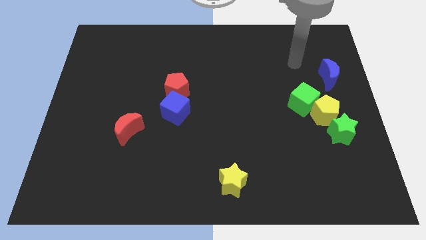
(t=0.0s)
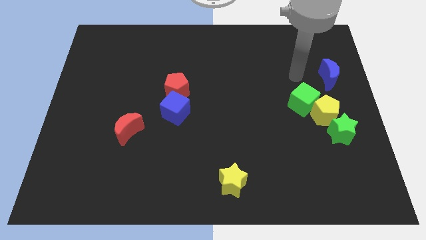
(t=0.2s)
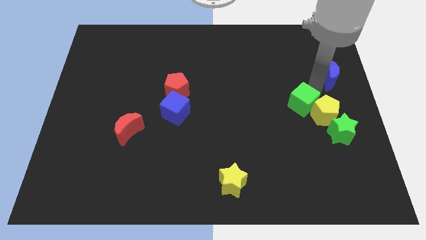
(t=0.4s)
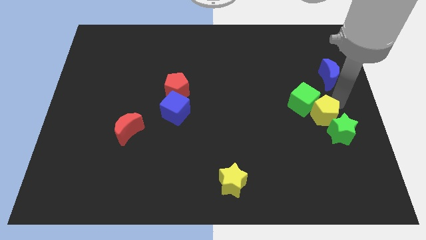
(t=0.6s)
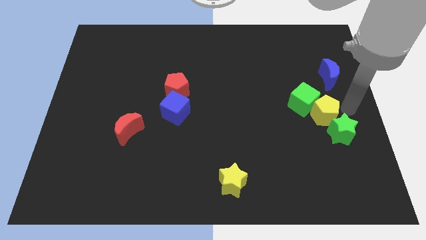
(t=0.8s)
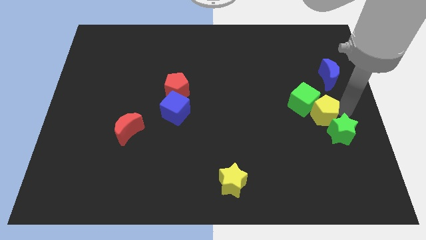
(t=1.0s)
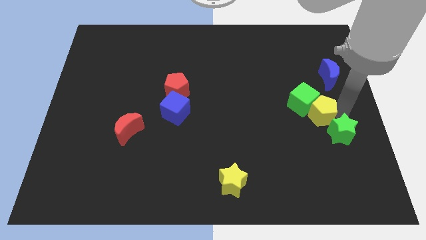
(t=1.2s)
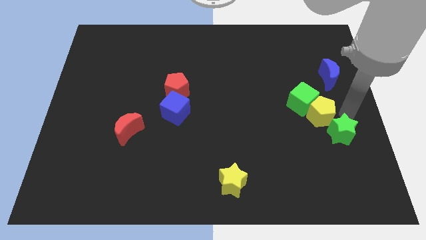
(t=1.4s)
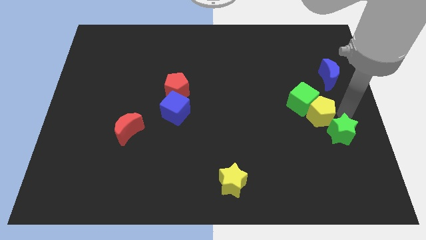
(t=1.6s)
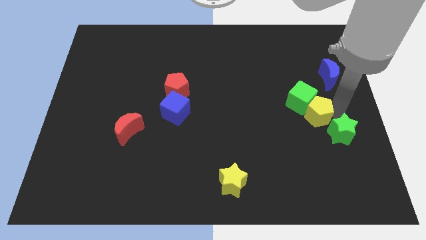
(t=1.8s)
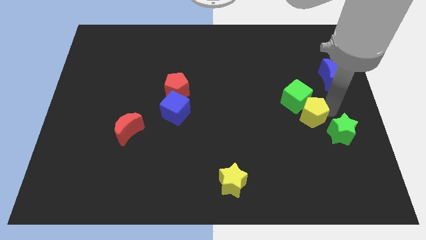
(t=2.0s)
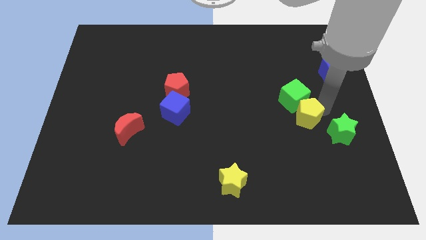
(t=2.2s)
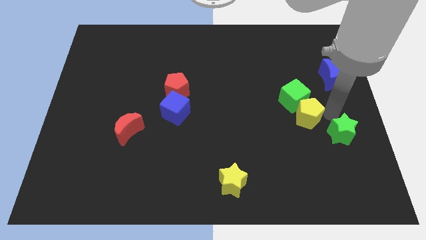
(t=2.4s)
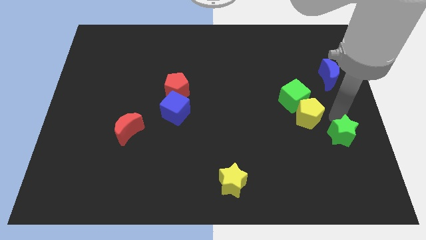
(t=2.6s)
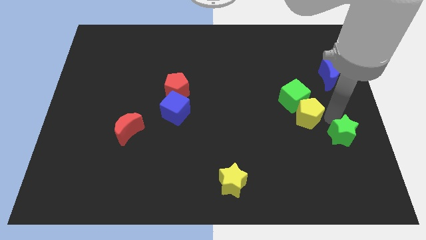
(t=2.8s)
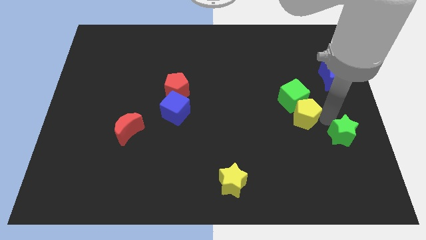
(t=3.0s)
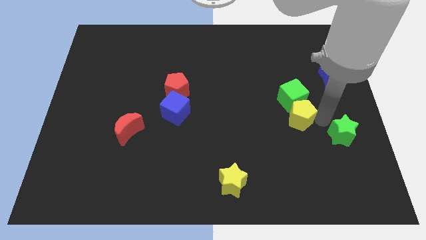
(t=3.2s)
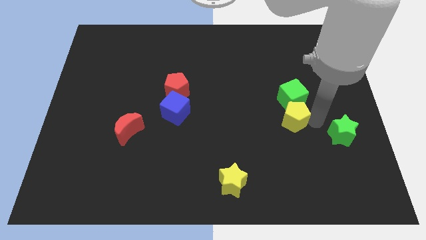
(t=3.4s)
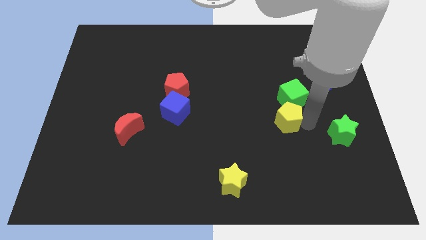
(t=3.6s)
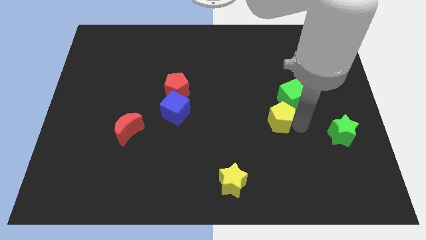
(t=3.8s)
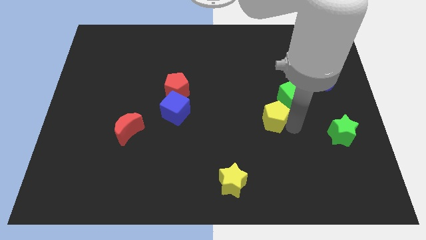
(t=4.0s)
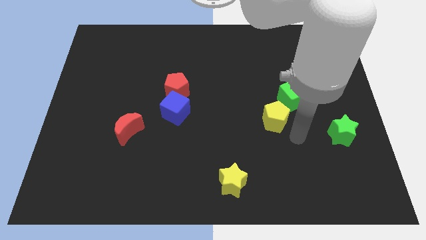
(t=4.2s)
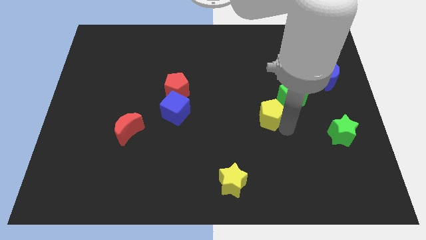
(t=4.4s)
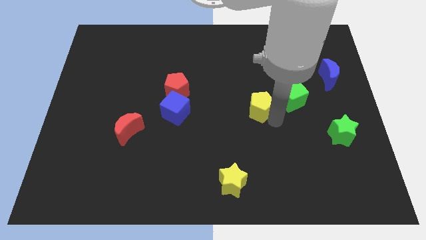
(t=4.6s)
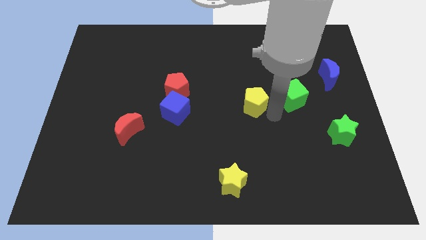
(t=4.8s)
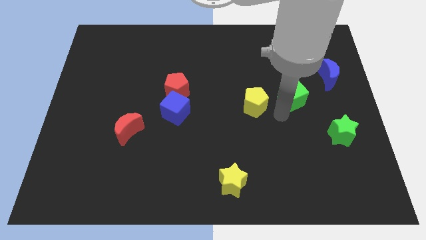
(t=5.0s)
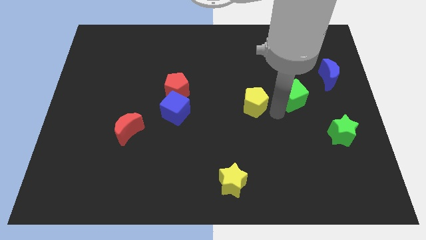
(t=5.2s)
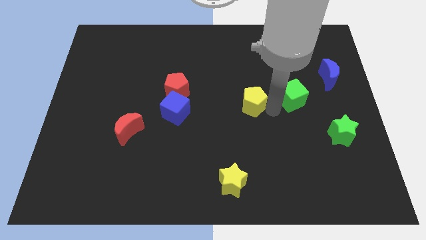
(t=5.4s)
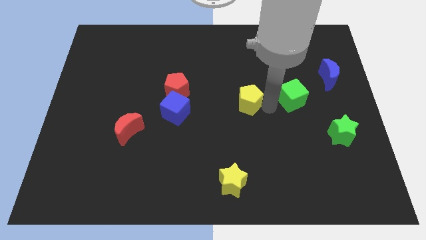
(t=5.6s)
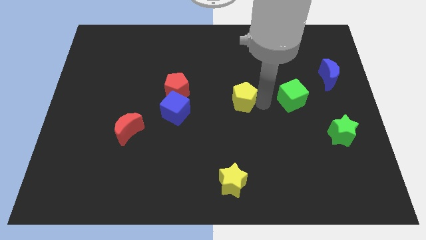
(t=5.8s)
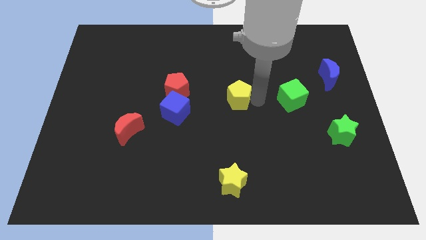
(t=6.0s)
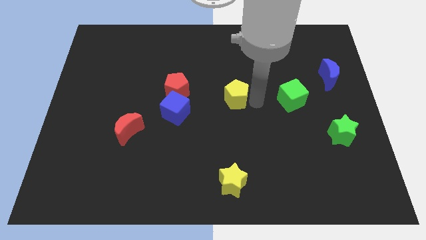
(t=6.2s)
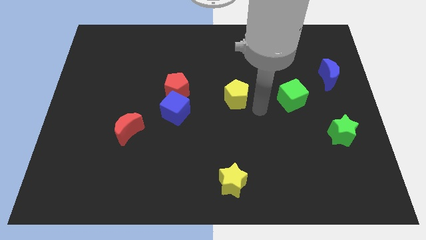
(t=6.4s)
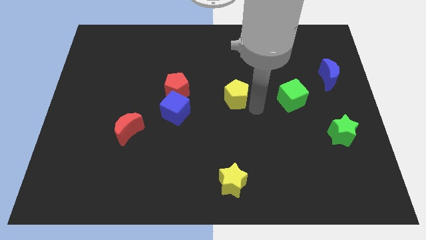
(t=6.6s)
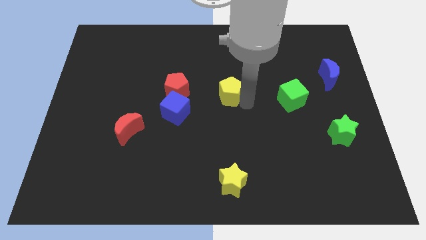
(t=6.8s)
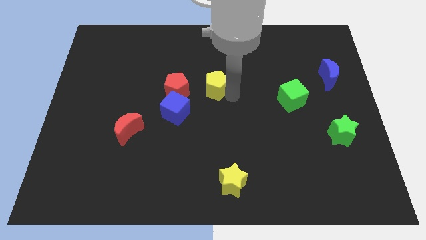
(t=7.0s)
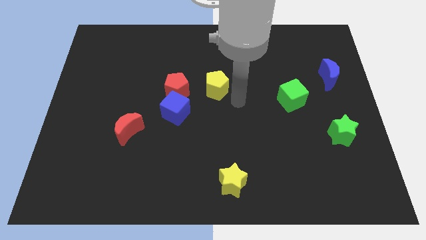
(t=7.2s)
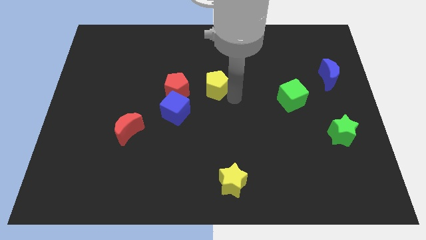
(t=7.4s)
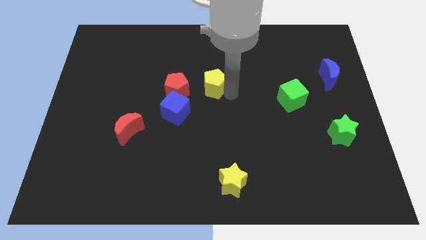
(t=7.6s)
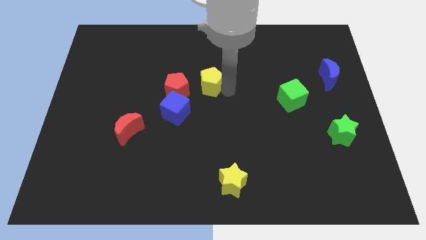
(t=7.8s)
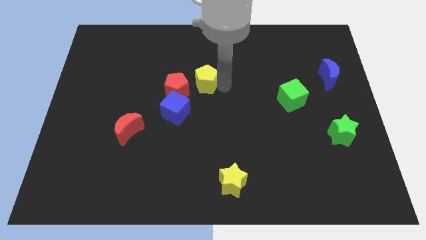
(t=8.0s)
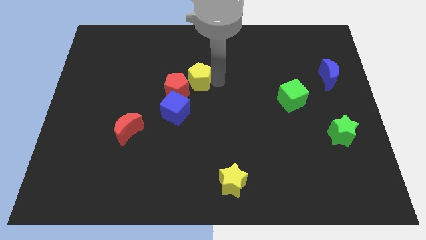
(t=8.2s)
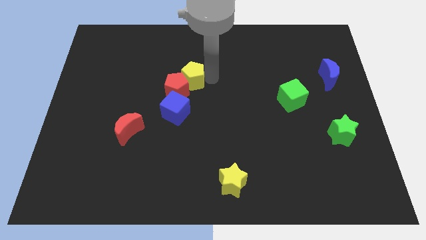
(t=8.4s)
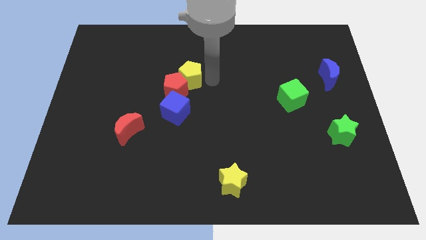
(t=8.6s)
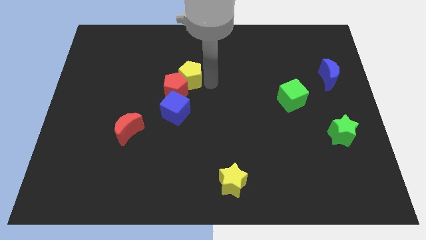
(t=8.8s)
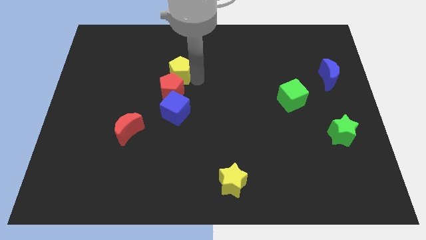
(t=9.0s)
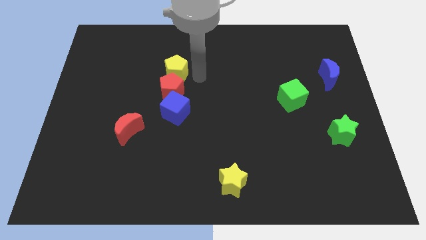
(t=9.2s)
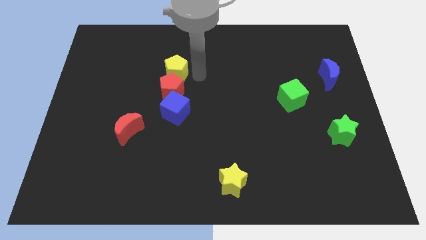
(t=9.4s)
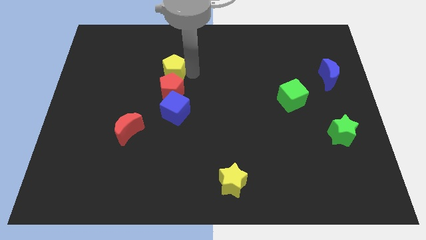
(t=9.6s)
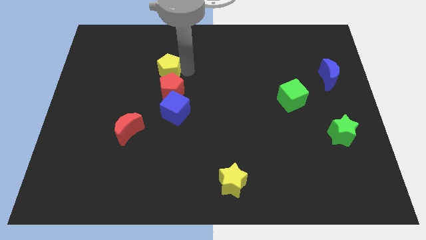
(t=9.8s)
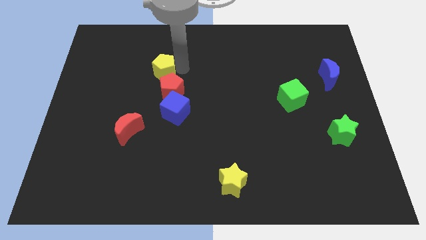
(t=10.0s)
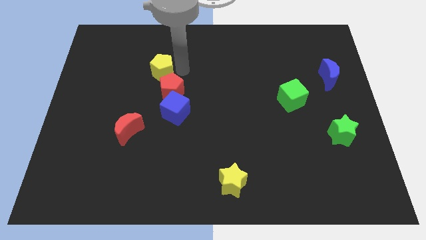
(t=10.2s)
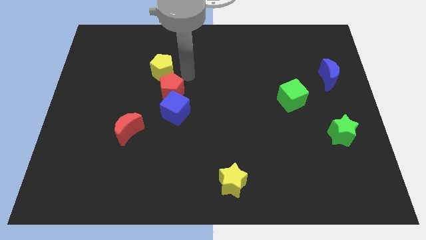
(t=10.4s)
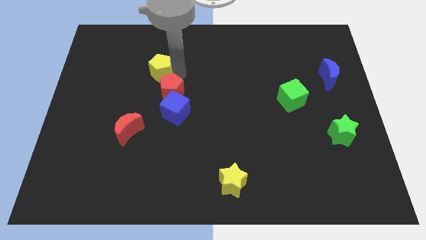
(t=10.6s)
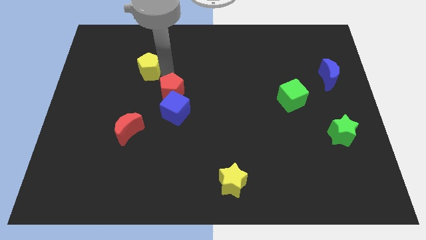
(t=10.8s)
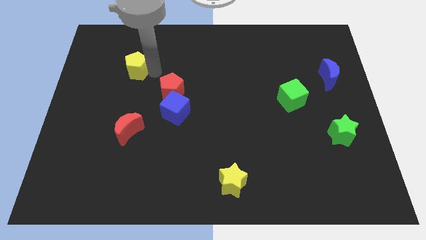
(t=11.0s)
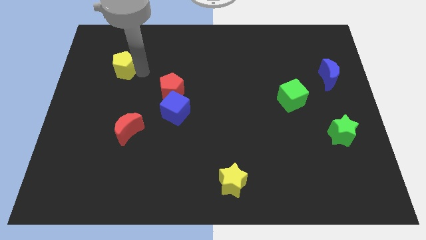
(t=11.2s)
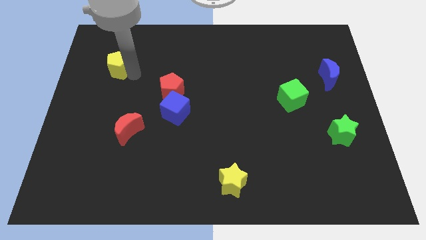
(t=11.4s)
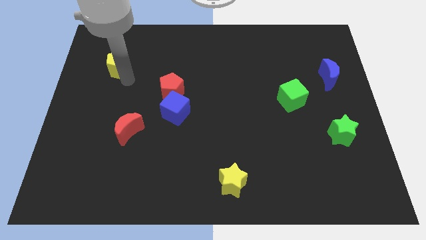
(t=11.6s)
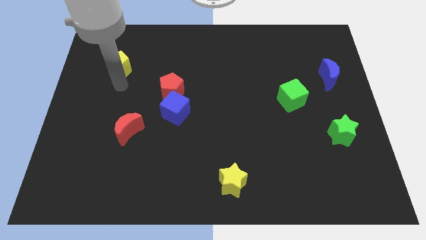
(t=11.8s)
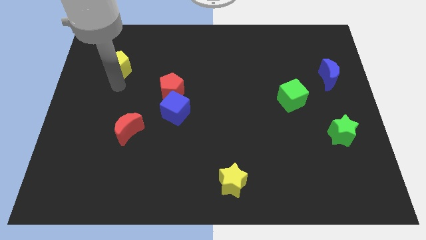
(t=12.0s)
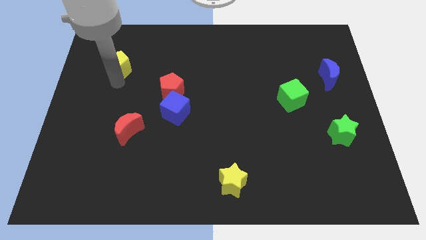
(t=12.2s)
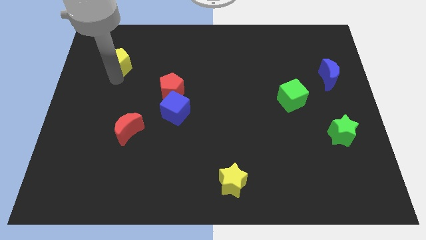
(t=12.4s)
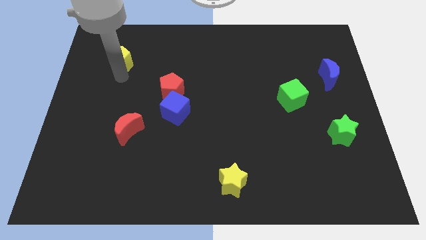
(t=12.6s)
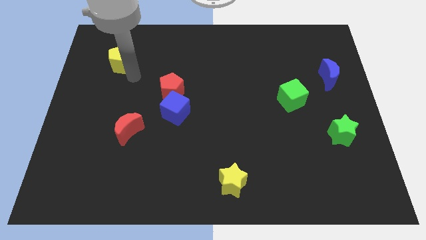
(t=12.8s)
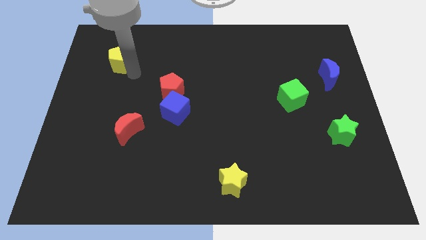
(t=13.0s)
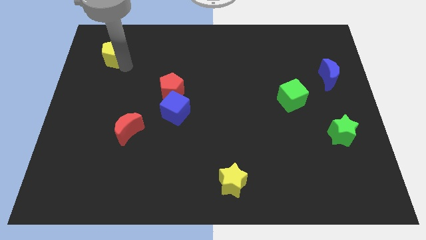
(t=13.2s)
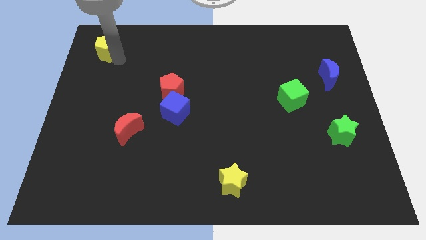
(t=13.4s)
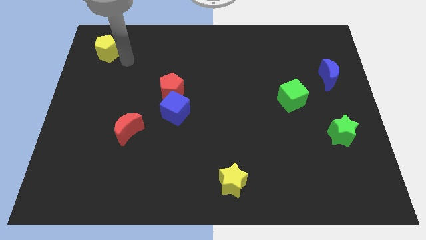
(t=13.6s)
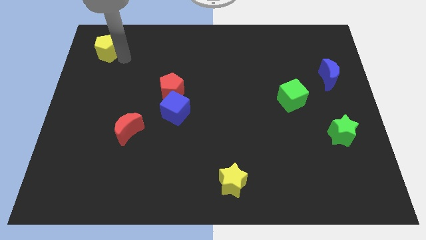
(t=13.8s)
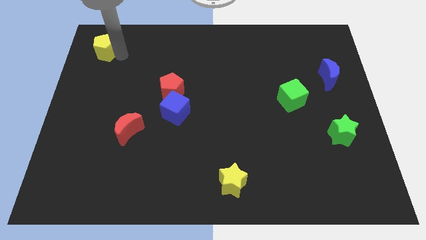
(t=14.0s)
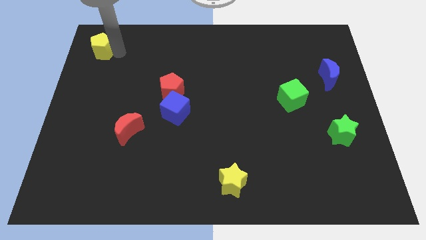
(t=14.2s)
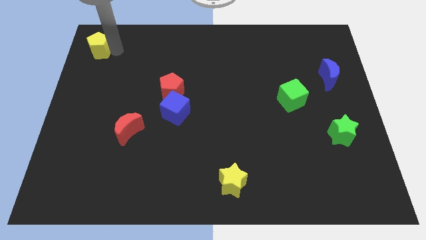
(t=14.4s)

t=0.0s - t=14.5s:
move the yellow pentagon to the top left of the board
